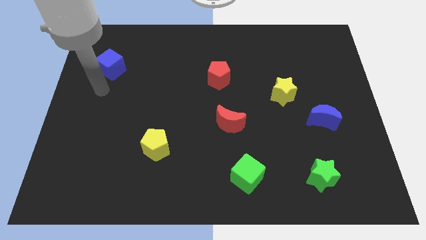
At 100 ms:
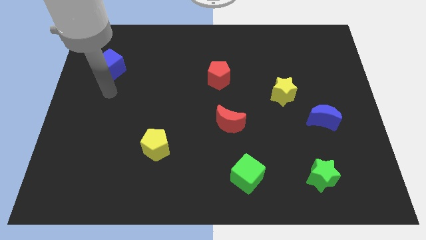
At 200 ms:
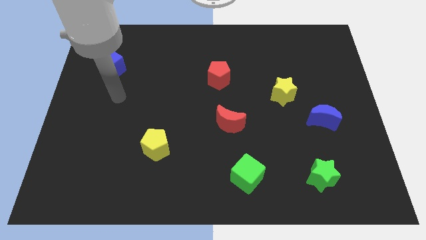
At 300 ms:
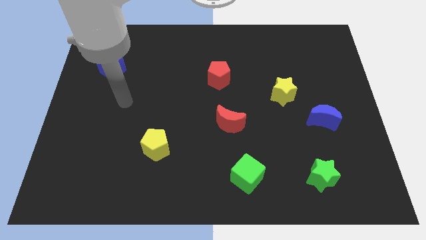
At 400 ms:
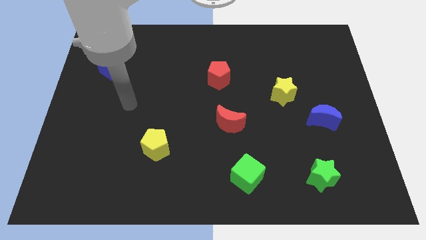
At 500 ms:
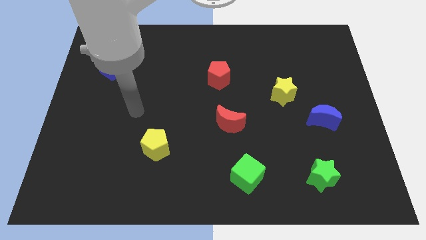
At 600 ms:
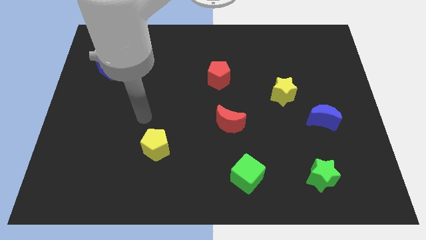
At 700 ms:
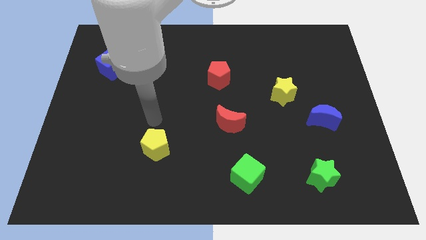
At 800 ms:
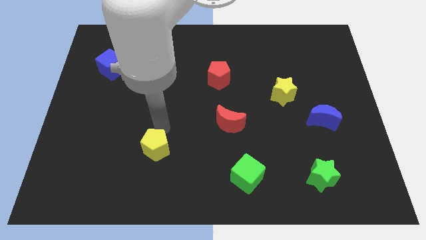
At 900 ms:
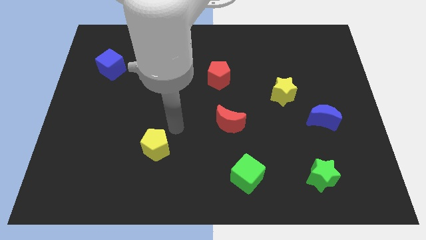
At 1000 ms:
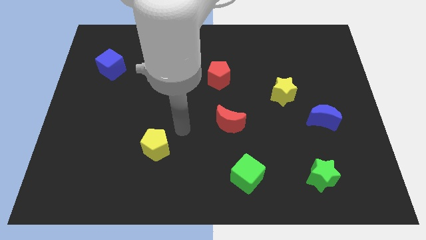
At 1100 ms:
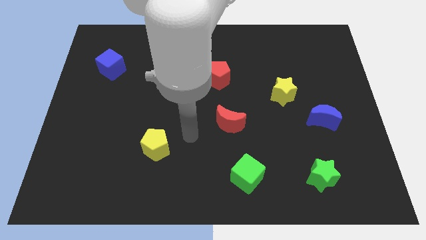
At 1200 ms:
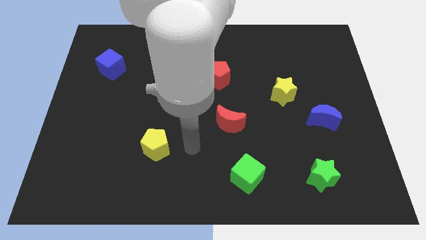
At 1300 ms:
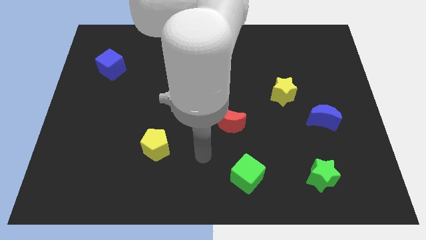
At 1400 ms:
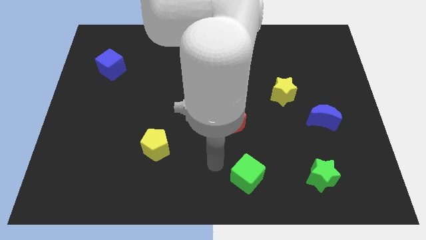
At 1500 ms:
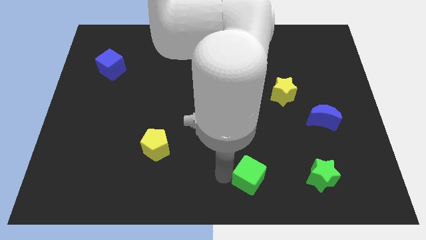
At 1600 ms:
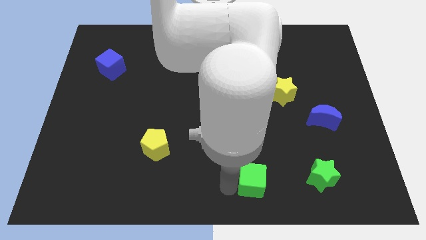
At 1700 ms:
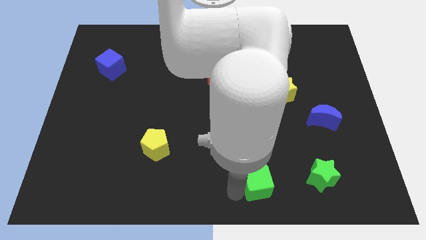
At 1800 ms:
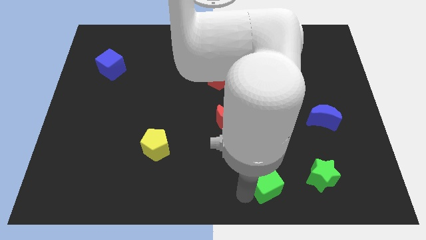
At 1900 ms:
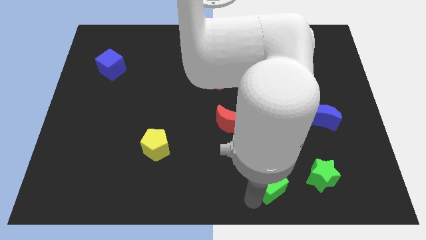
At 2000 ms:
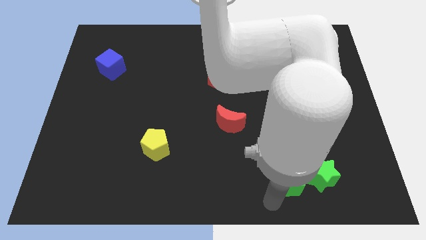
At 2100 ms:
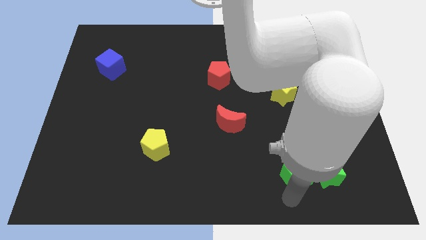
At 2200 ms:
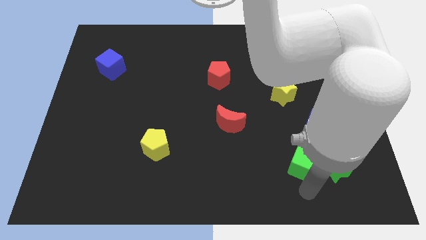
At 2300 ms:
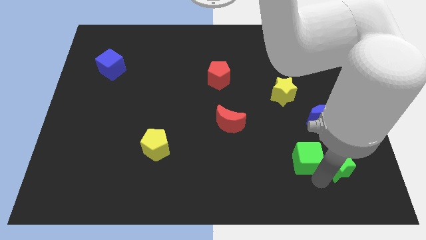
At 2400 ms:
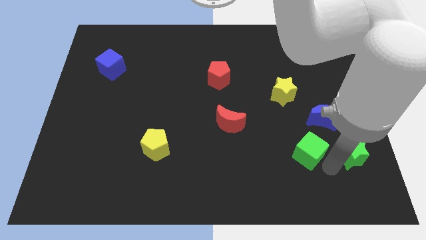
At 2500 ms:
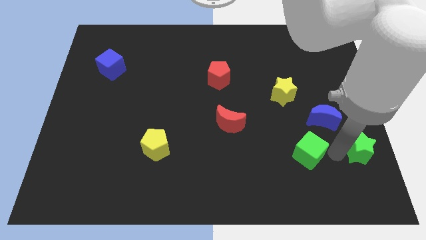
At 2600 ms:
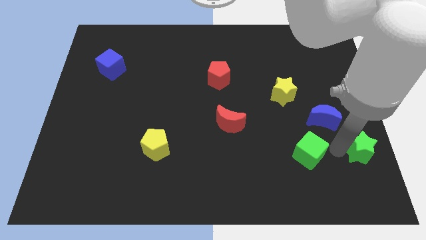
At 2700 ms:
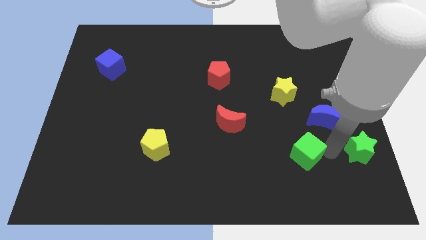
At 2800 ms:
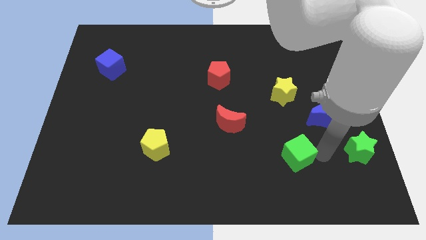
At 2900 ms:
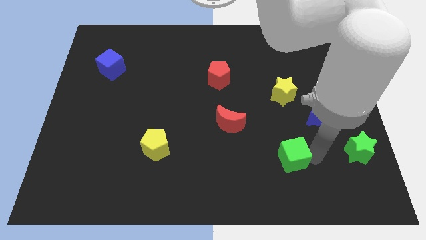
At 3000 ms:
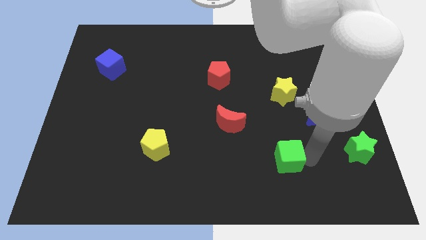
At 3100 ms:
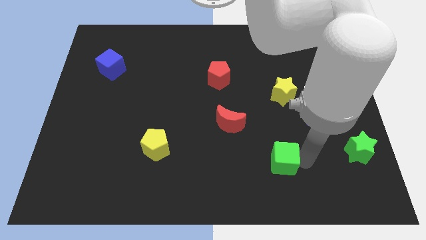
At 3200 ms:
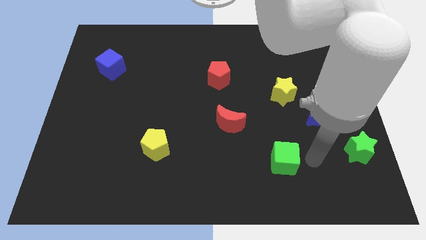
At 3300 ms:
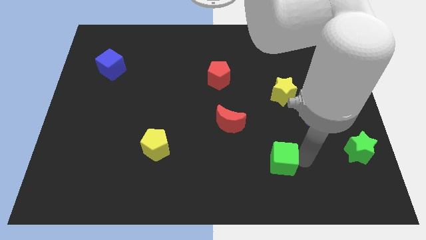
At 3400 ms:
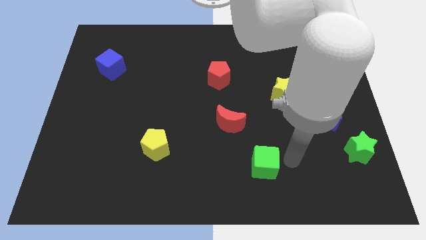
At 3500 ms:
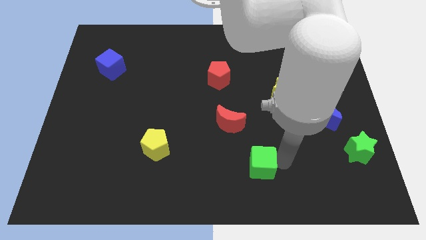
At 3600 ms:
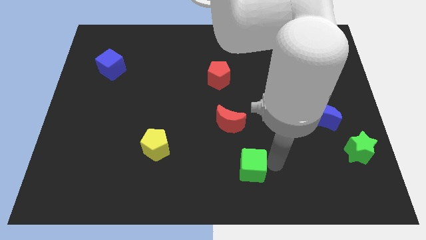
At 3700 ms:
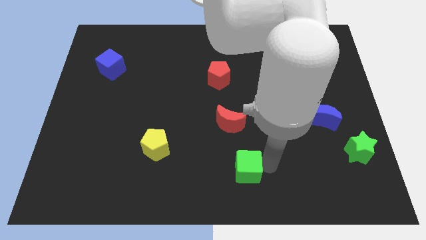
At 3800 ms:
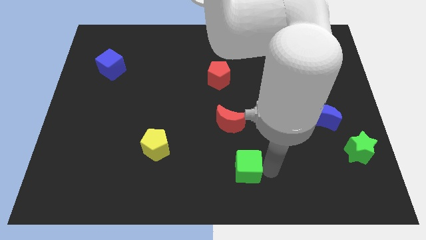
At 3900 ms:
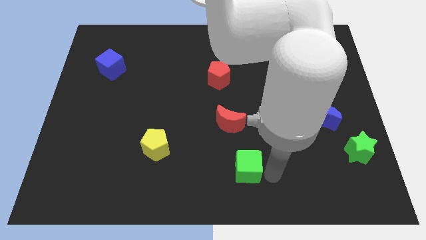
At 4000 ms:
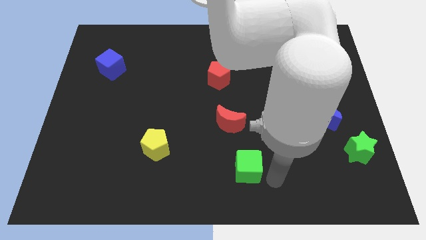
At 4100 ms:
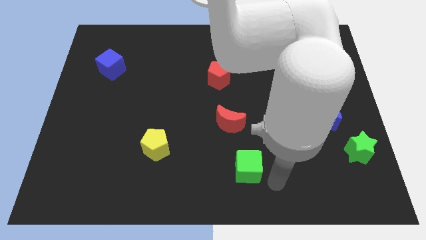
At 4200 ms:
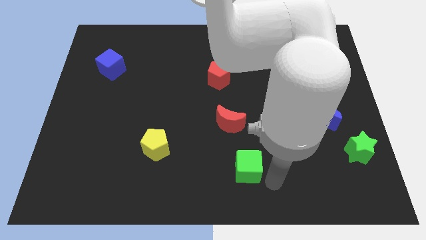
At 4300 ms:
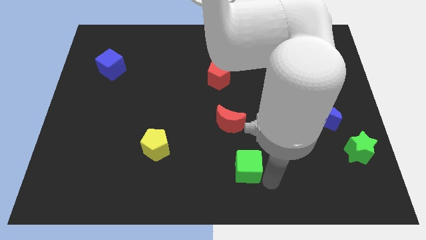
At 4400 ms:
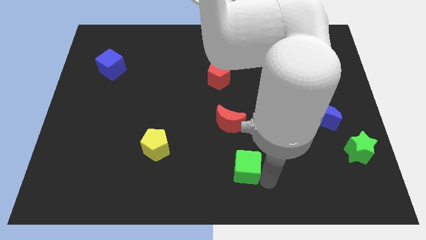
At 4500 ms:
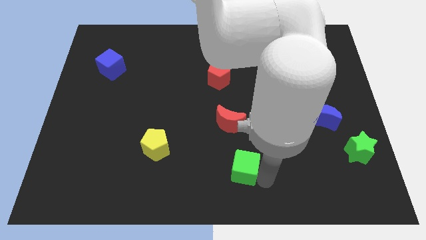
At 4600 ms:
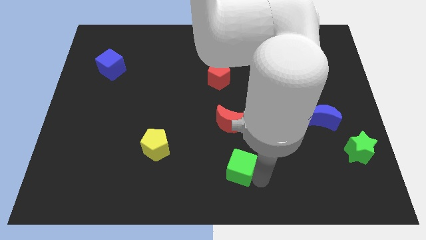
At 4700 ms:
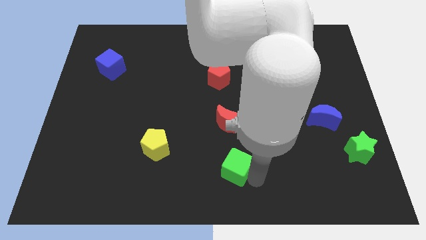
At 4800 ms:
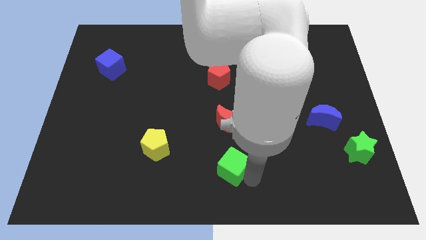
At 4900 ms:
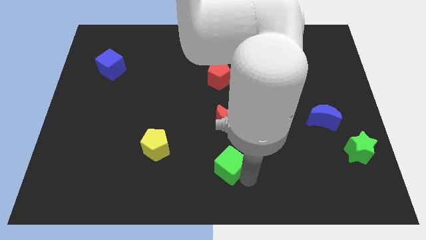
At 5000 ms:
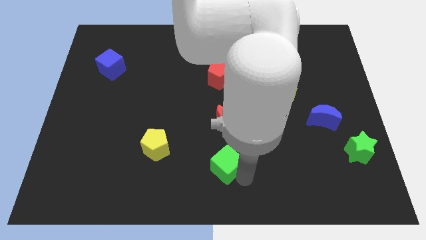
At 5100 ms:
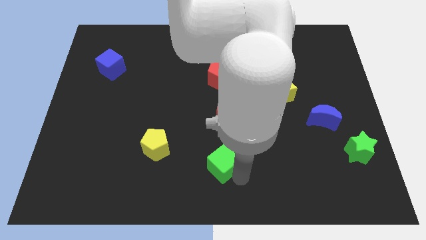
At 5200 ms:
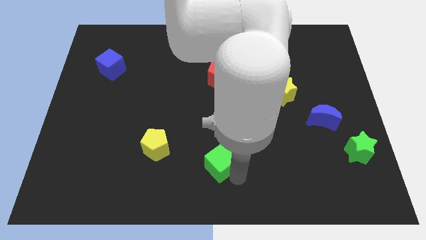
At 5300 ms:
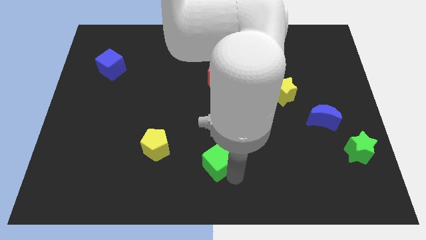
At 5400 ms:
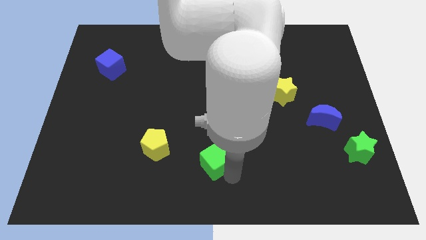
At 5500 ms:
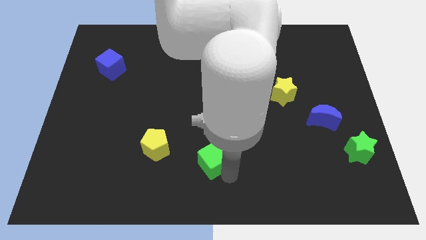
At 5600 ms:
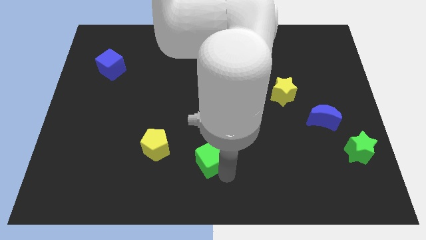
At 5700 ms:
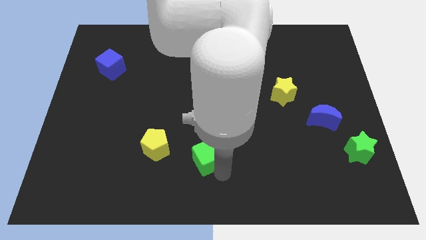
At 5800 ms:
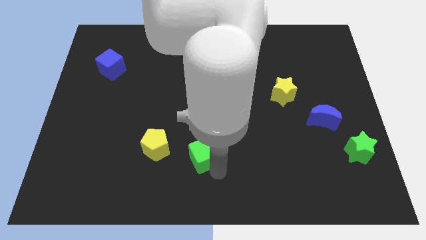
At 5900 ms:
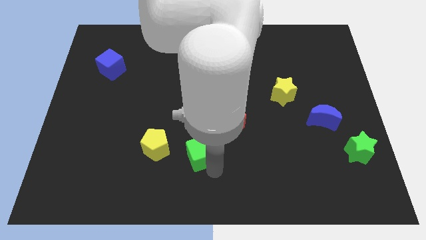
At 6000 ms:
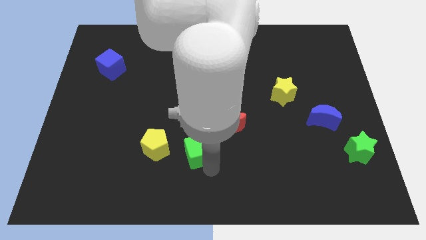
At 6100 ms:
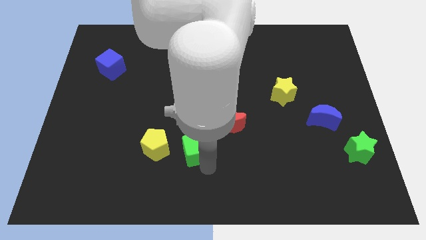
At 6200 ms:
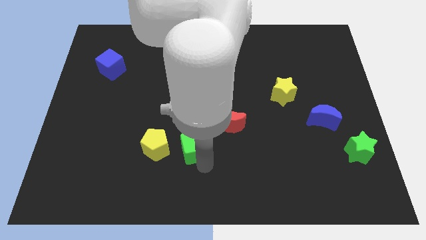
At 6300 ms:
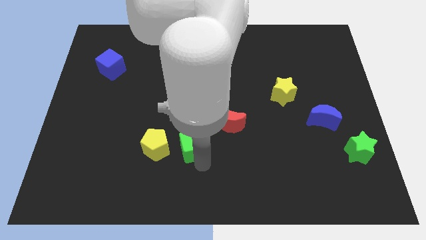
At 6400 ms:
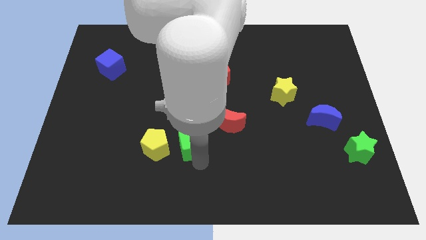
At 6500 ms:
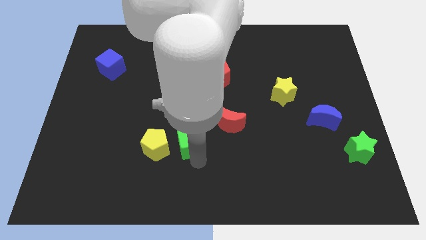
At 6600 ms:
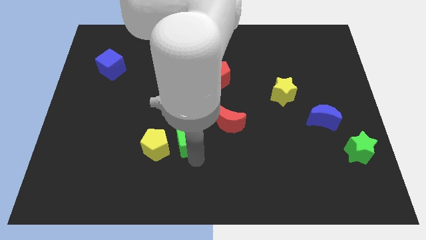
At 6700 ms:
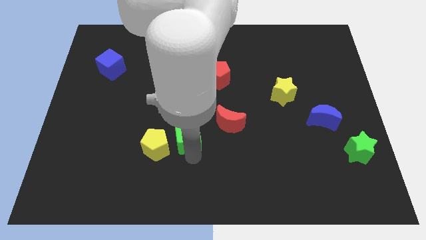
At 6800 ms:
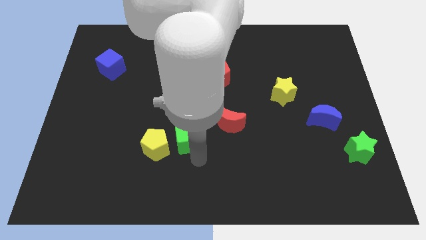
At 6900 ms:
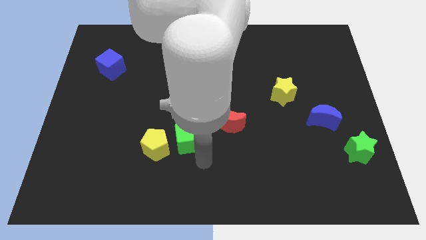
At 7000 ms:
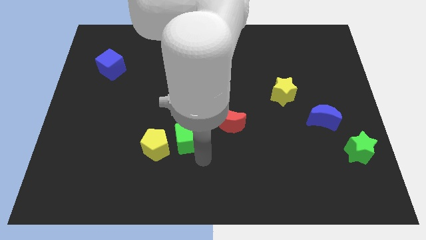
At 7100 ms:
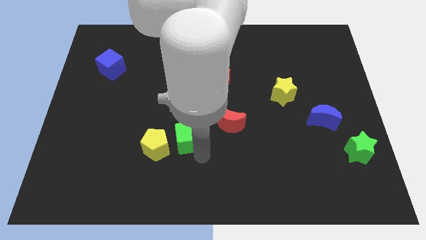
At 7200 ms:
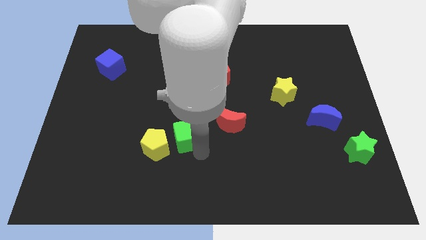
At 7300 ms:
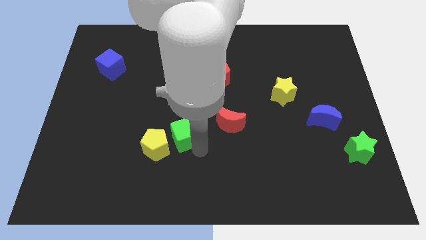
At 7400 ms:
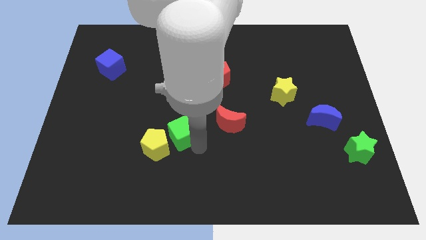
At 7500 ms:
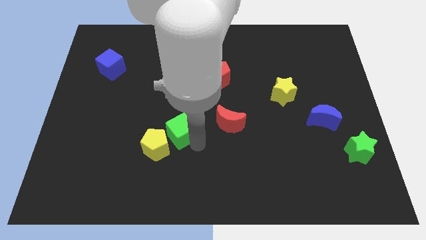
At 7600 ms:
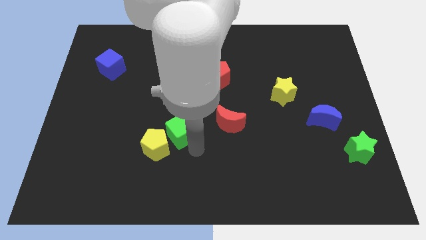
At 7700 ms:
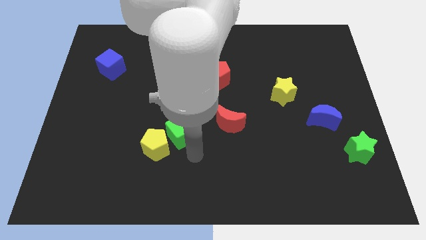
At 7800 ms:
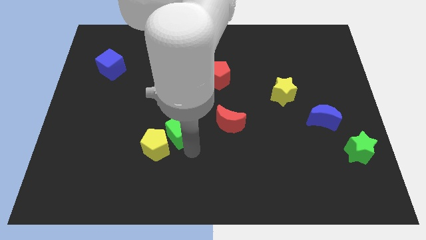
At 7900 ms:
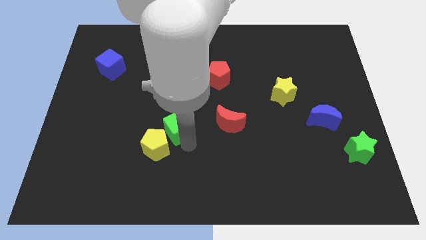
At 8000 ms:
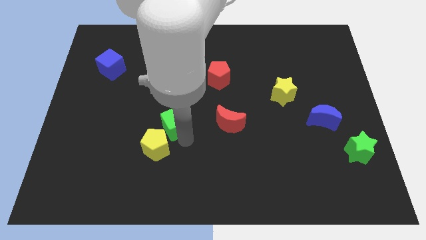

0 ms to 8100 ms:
push the green cube upwards and to the left
